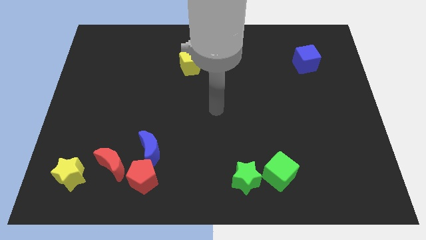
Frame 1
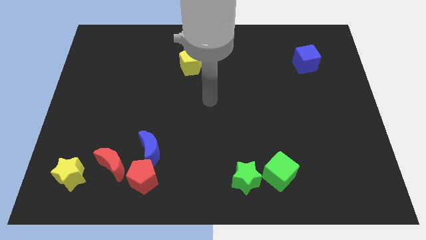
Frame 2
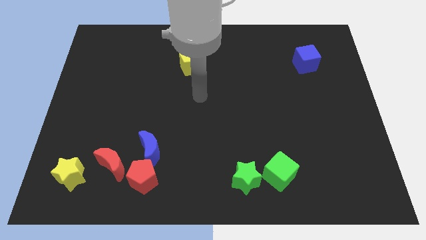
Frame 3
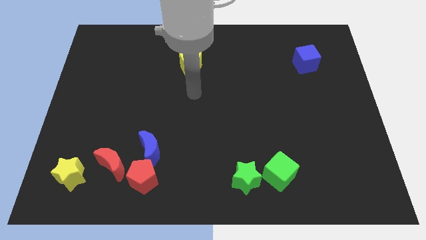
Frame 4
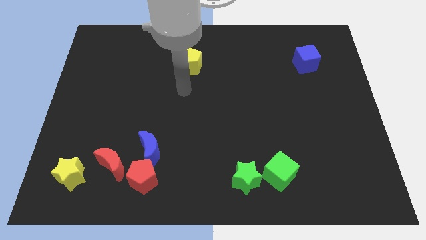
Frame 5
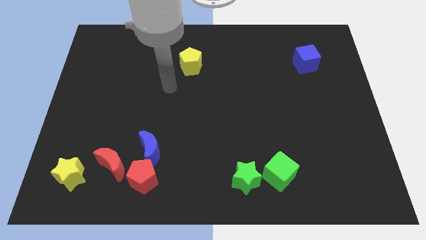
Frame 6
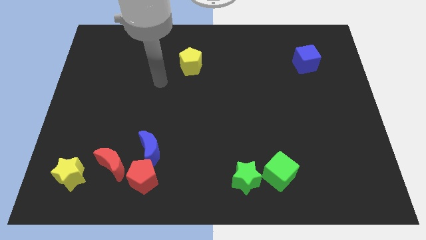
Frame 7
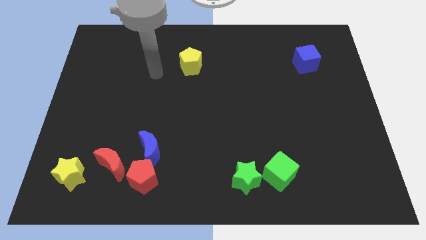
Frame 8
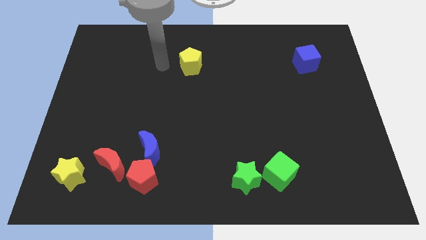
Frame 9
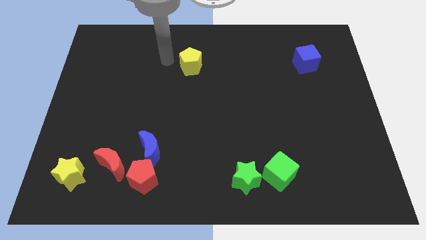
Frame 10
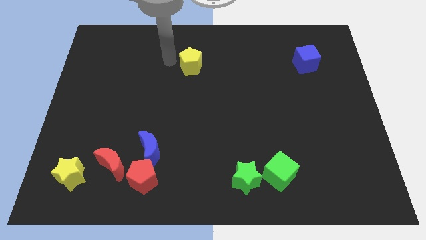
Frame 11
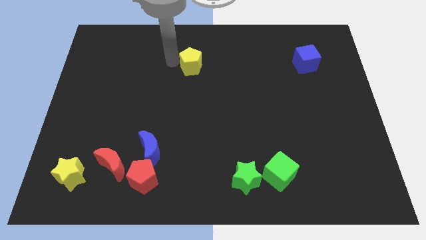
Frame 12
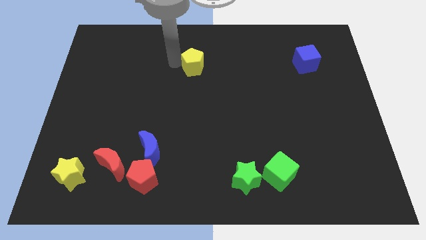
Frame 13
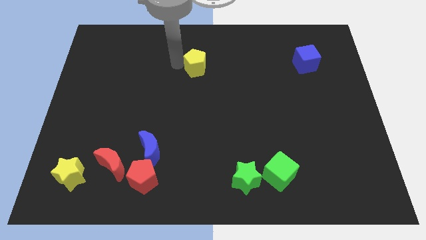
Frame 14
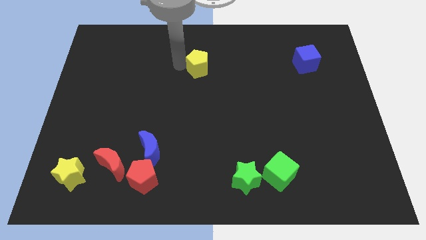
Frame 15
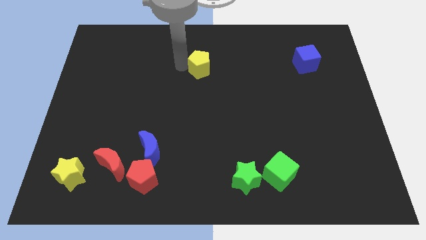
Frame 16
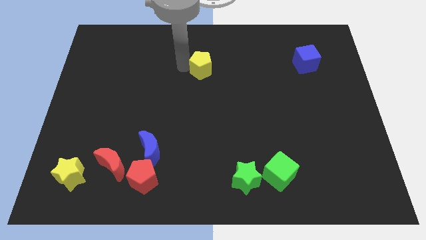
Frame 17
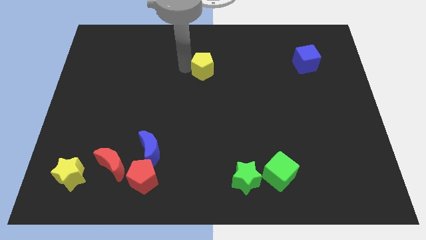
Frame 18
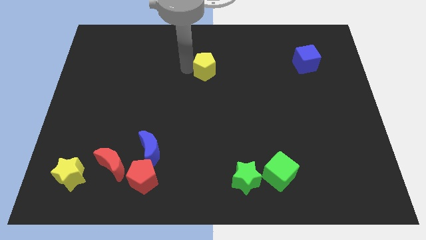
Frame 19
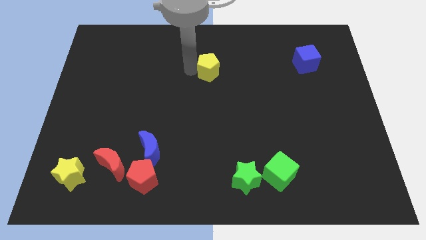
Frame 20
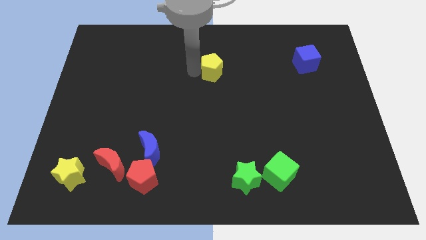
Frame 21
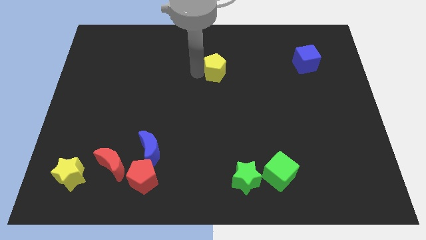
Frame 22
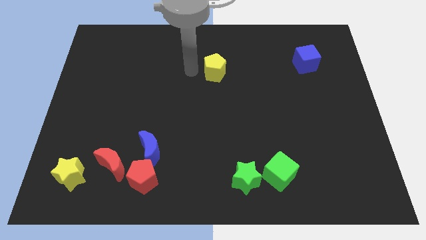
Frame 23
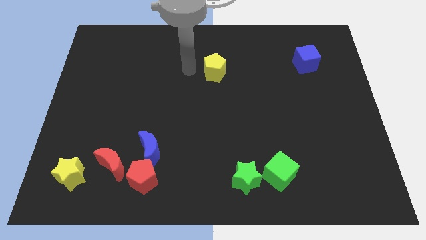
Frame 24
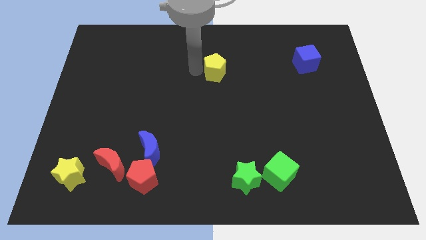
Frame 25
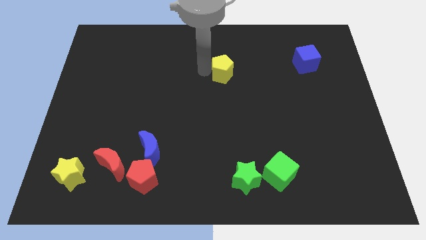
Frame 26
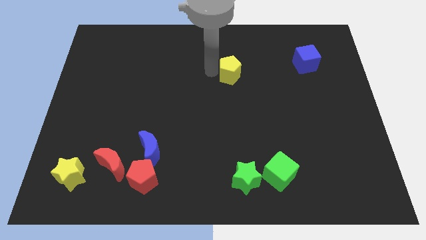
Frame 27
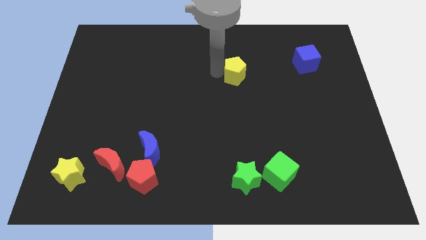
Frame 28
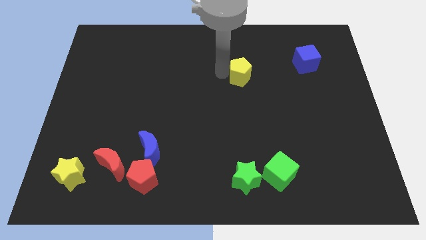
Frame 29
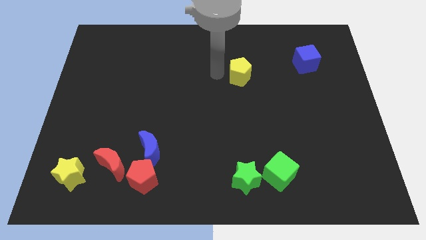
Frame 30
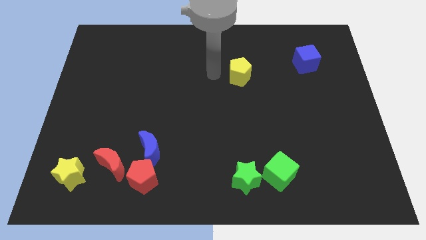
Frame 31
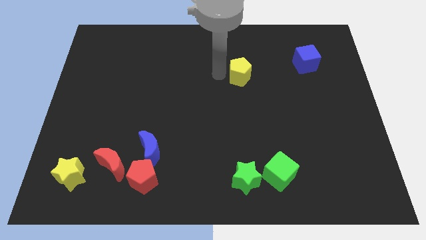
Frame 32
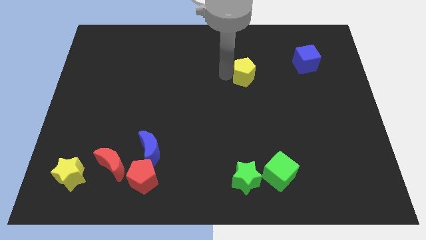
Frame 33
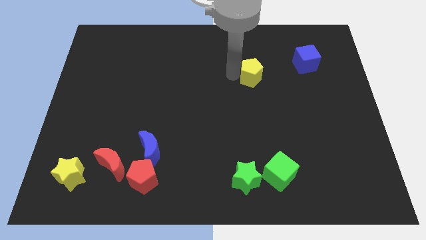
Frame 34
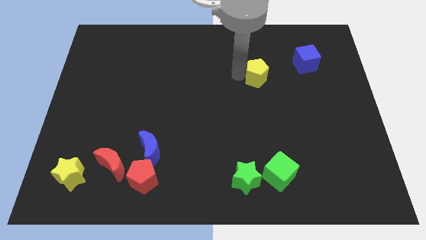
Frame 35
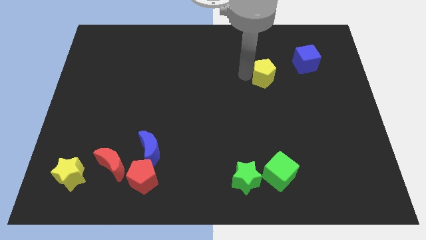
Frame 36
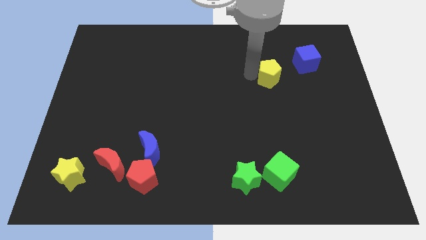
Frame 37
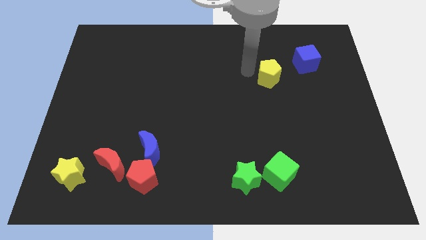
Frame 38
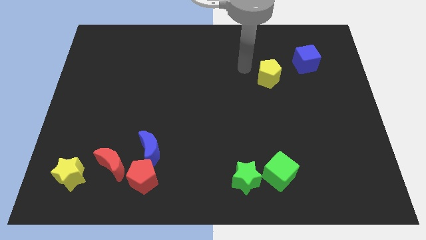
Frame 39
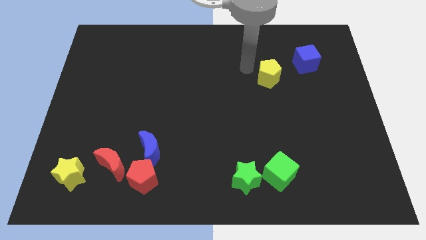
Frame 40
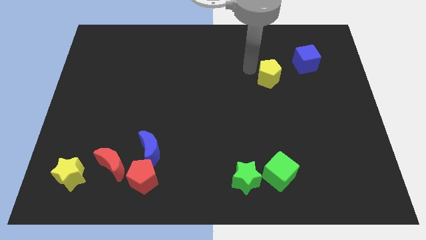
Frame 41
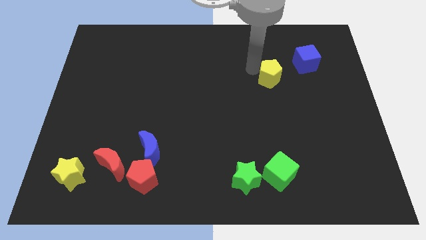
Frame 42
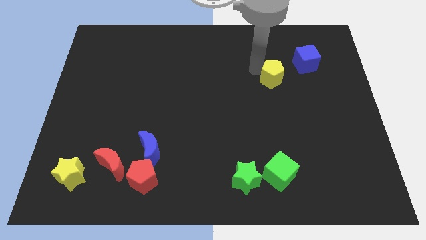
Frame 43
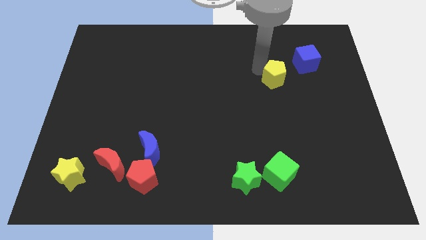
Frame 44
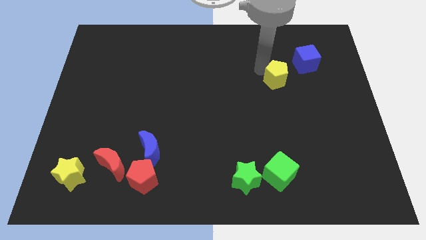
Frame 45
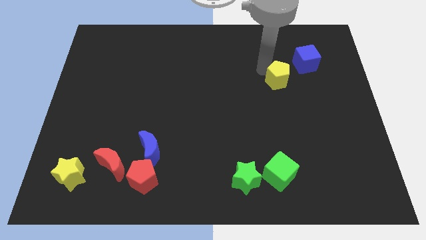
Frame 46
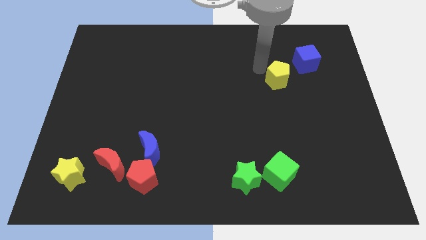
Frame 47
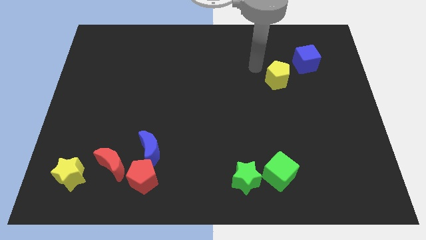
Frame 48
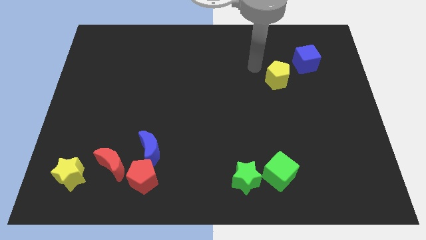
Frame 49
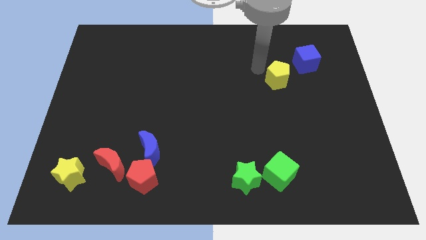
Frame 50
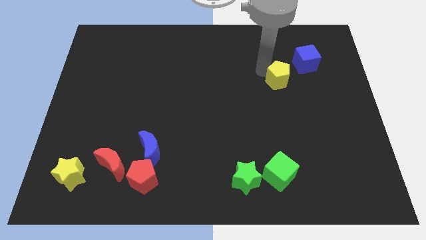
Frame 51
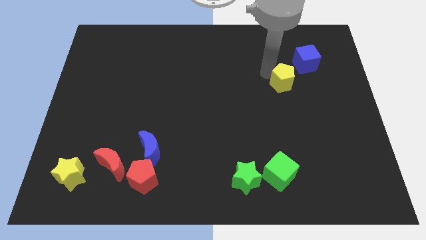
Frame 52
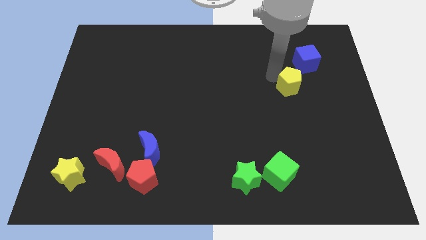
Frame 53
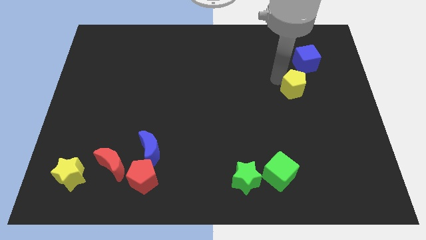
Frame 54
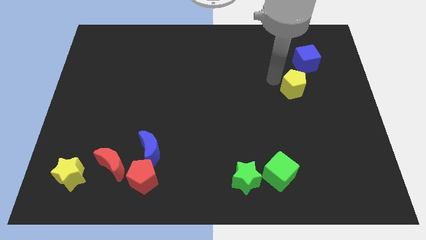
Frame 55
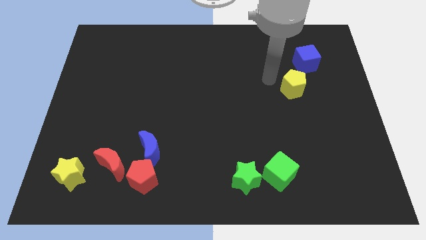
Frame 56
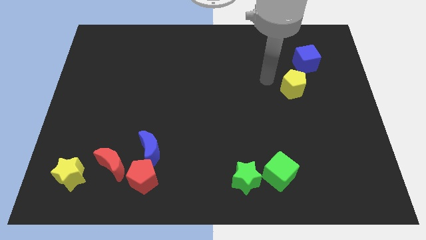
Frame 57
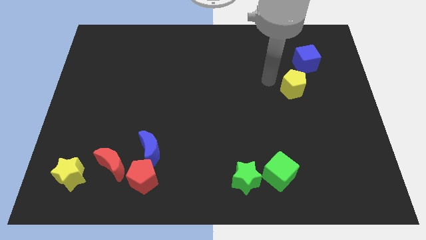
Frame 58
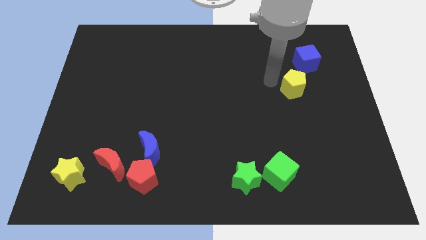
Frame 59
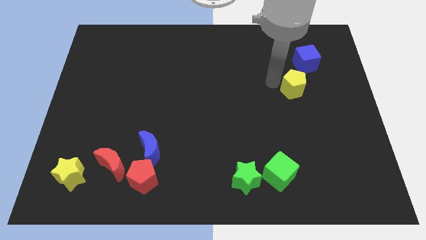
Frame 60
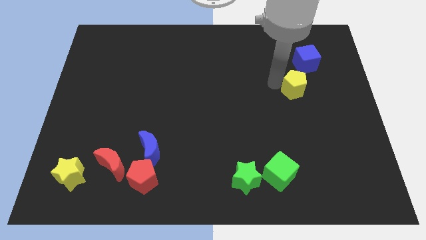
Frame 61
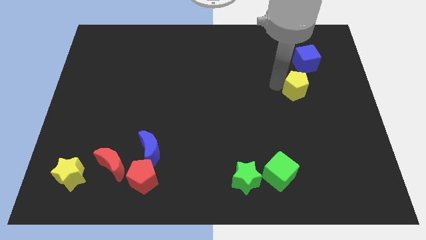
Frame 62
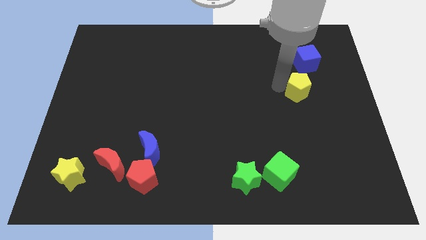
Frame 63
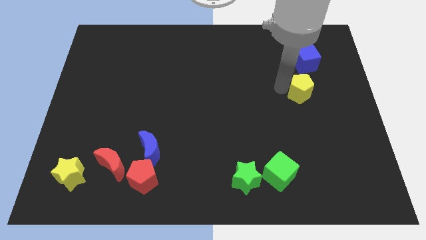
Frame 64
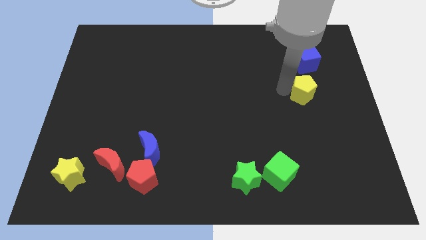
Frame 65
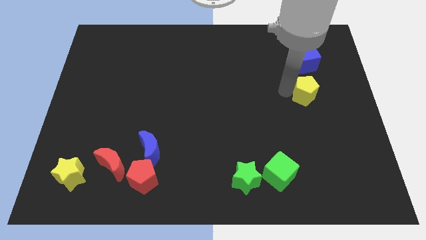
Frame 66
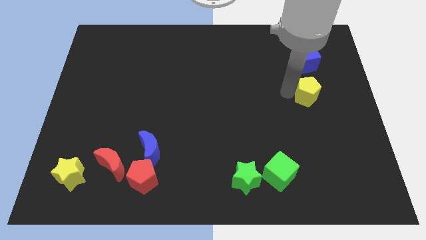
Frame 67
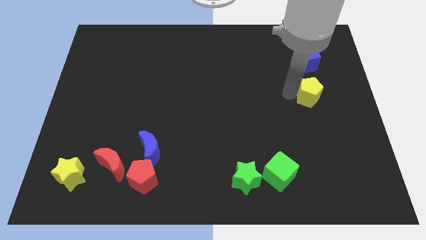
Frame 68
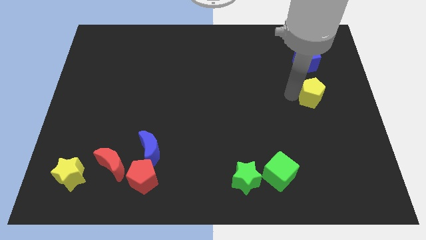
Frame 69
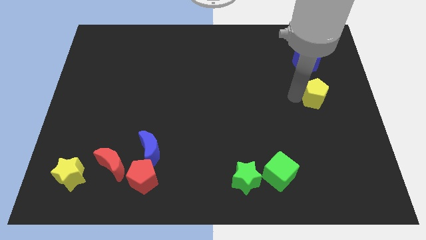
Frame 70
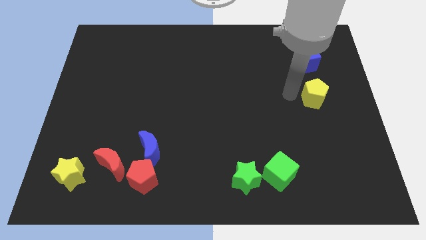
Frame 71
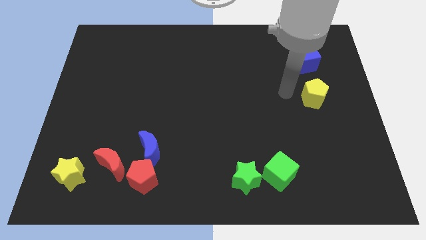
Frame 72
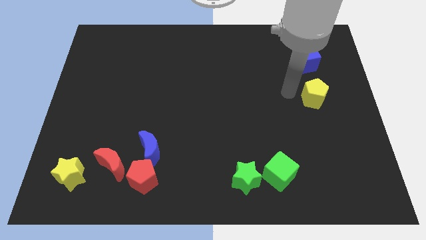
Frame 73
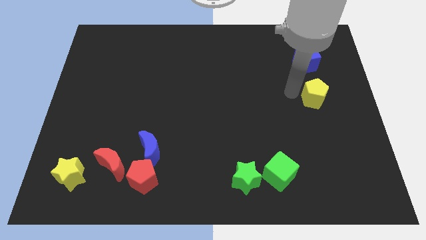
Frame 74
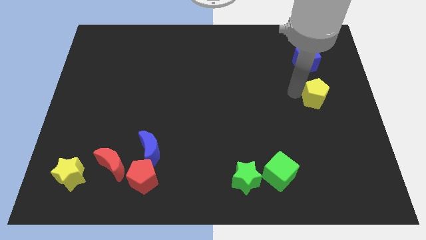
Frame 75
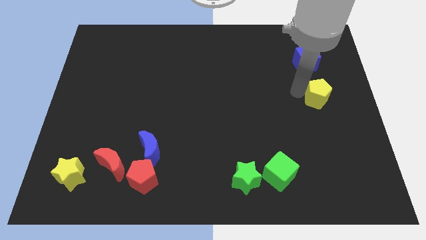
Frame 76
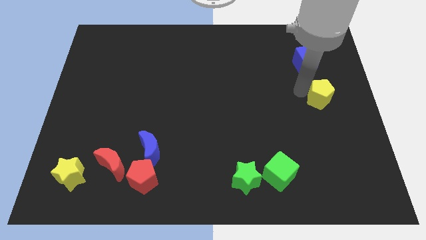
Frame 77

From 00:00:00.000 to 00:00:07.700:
move the yellow pentagon to the right side
